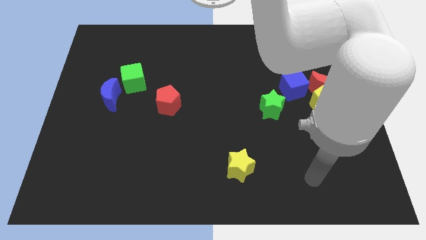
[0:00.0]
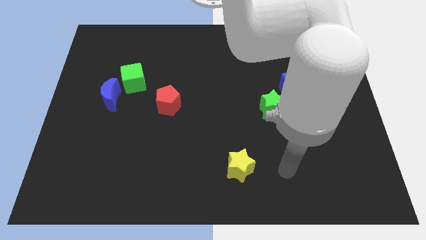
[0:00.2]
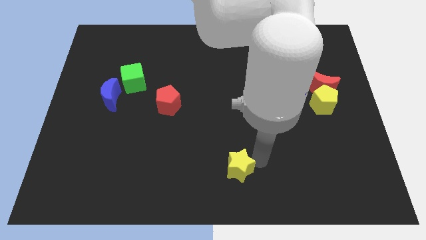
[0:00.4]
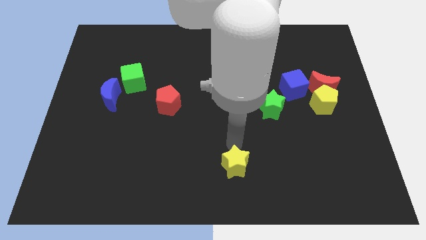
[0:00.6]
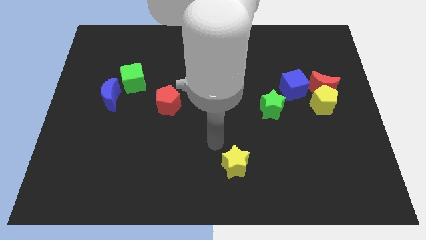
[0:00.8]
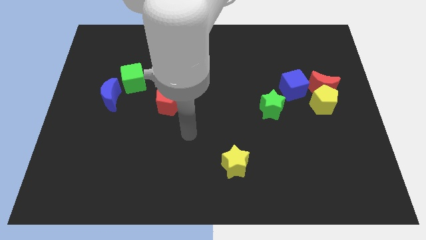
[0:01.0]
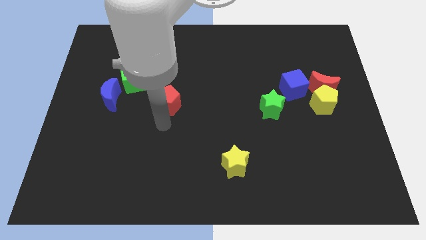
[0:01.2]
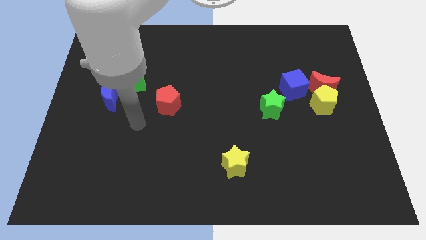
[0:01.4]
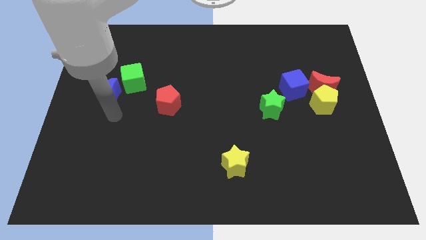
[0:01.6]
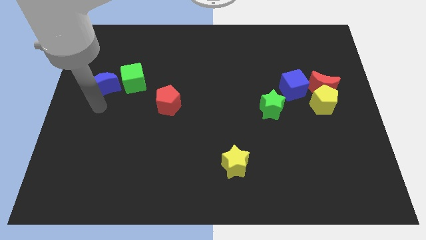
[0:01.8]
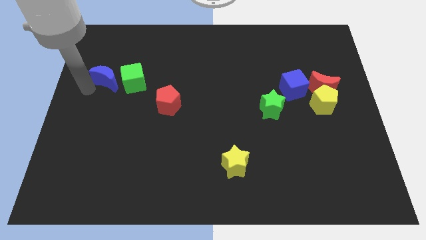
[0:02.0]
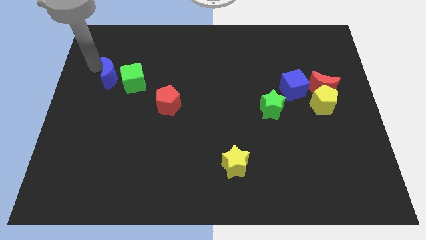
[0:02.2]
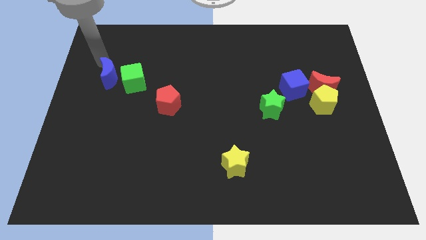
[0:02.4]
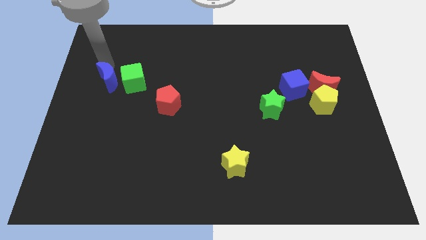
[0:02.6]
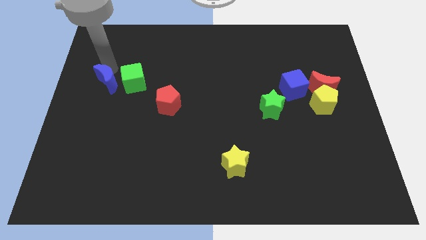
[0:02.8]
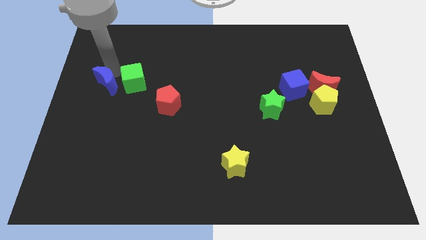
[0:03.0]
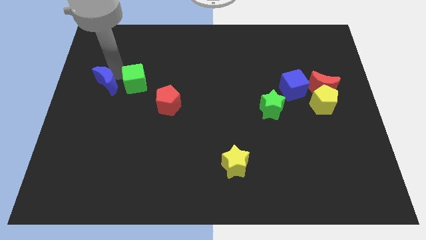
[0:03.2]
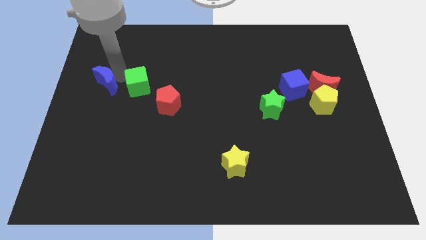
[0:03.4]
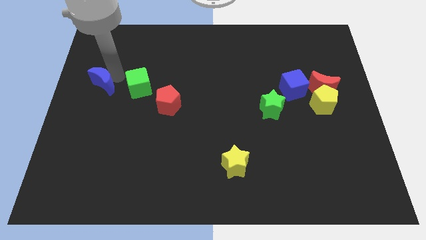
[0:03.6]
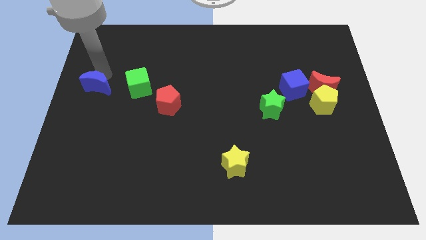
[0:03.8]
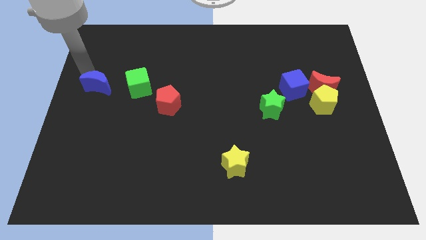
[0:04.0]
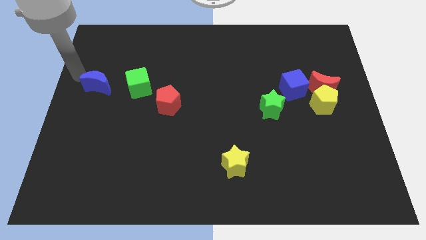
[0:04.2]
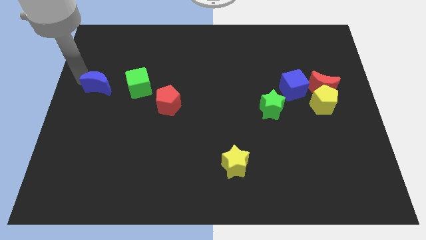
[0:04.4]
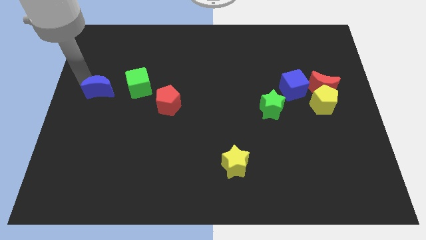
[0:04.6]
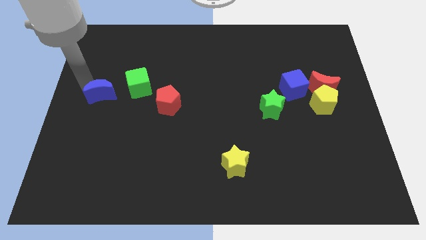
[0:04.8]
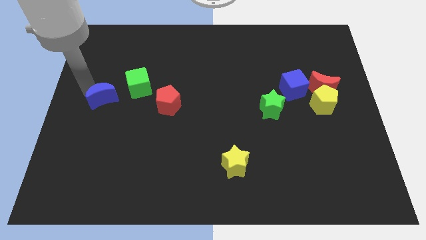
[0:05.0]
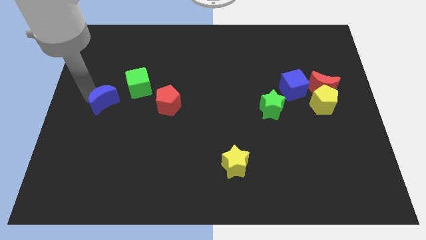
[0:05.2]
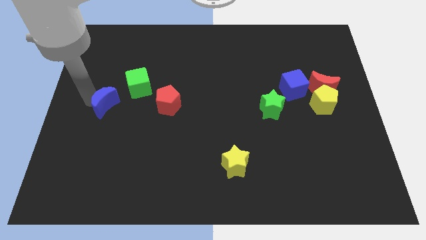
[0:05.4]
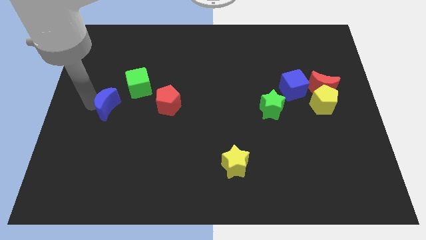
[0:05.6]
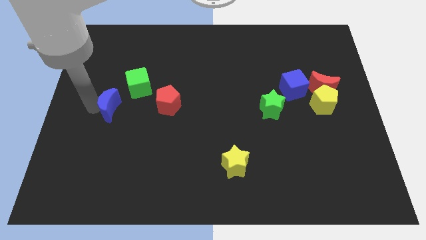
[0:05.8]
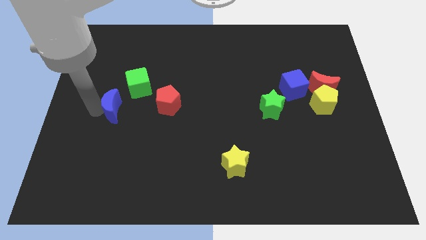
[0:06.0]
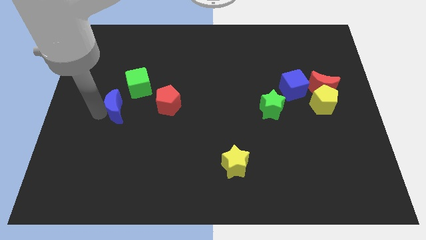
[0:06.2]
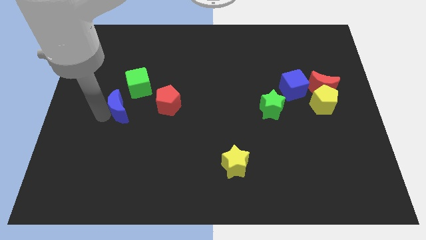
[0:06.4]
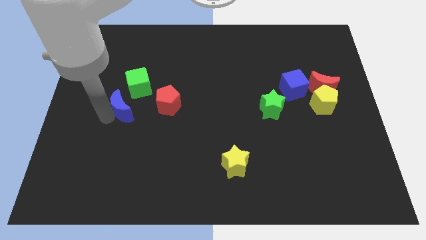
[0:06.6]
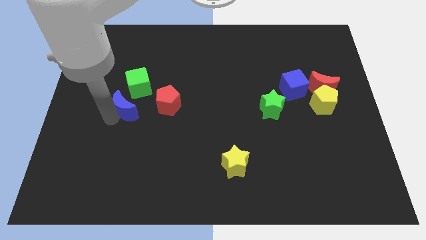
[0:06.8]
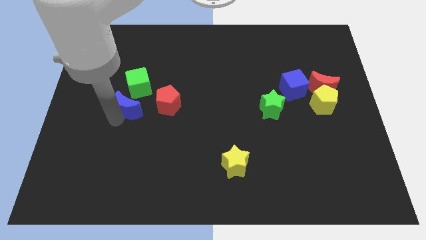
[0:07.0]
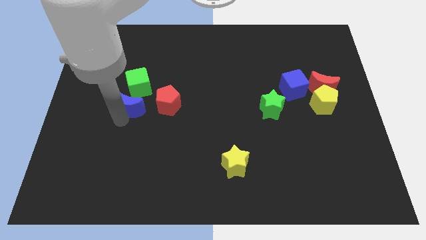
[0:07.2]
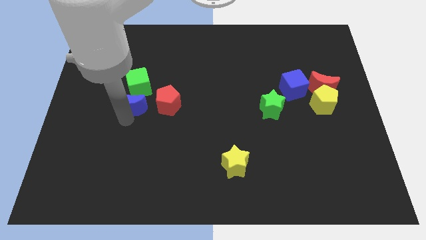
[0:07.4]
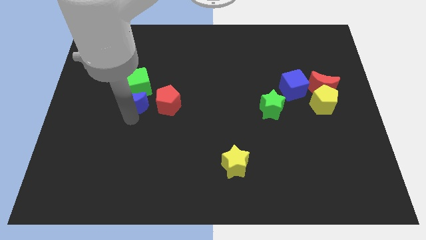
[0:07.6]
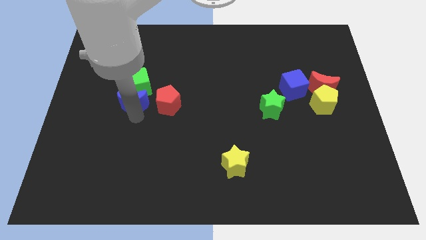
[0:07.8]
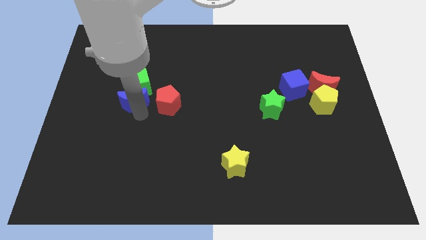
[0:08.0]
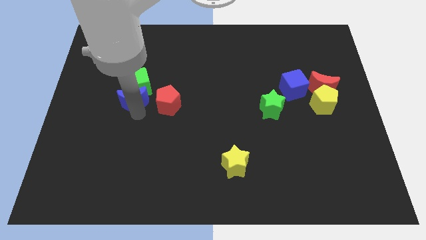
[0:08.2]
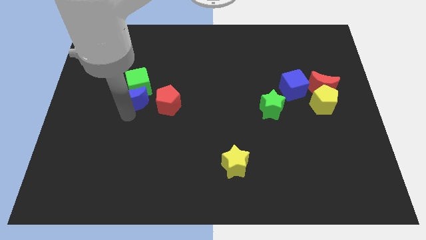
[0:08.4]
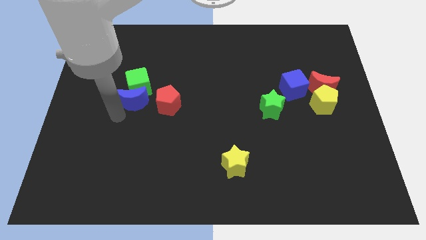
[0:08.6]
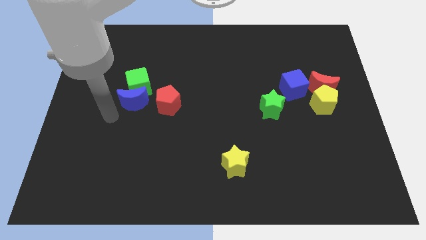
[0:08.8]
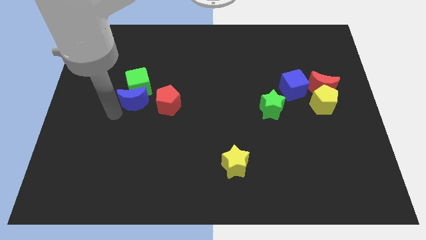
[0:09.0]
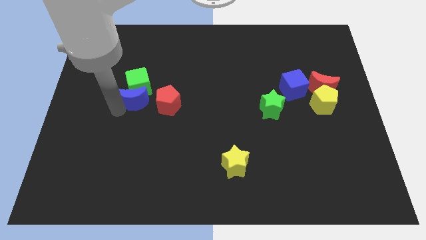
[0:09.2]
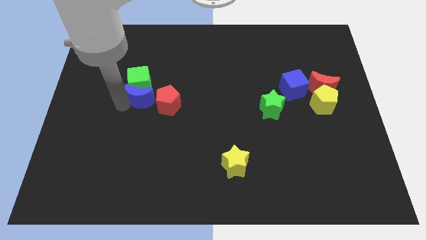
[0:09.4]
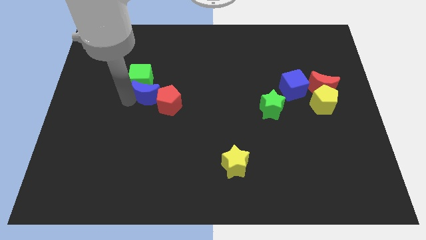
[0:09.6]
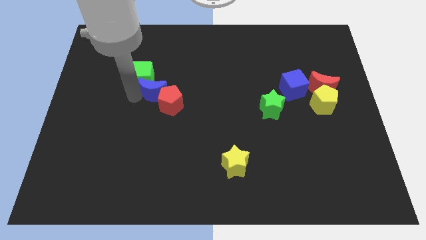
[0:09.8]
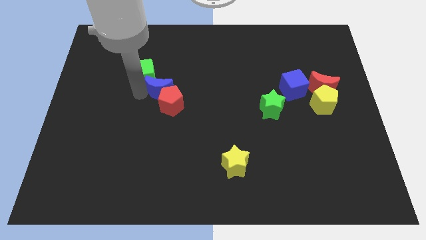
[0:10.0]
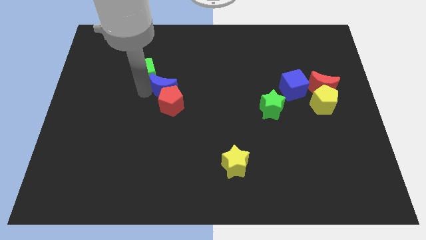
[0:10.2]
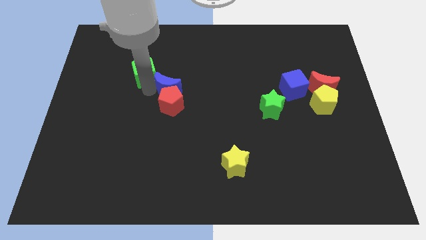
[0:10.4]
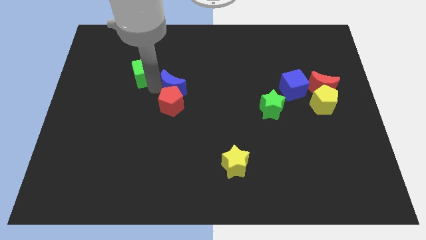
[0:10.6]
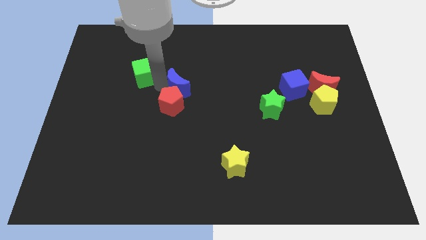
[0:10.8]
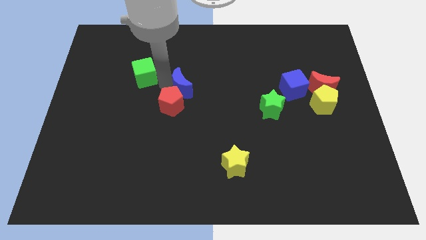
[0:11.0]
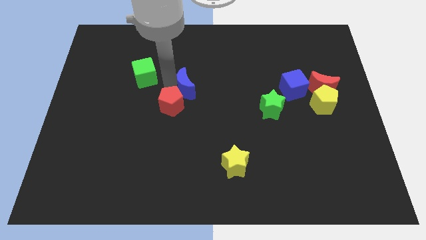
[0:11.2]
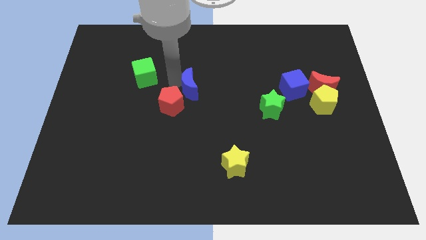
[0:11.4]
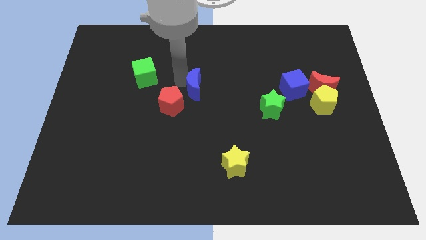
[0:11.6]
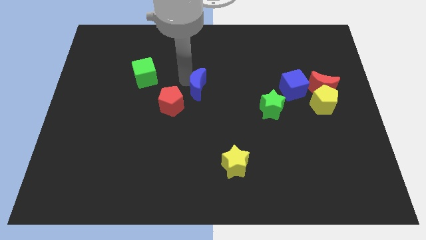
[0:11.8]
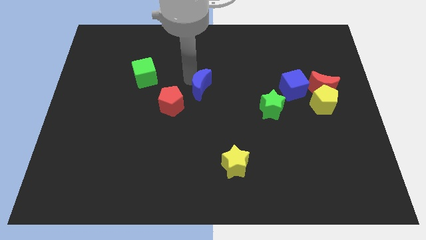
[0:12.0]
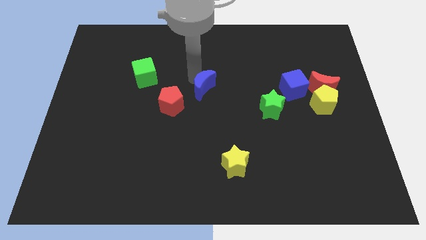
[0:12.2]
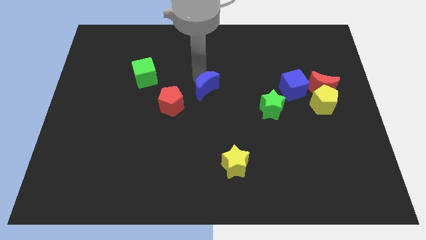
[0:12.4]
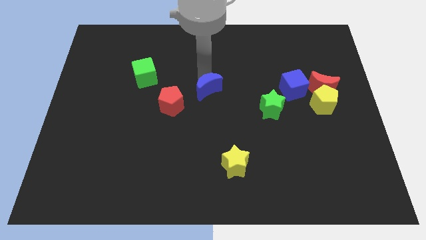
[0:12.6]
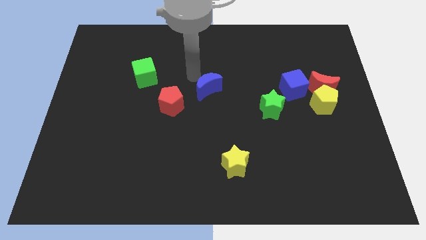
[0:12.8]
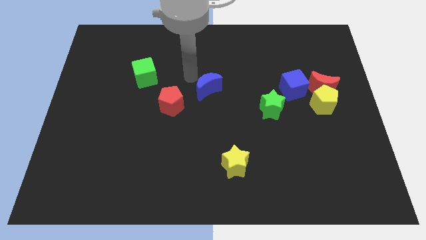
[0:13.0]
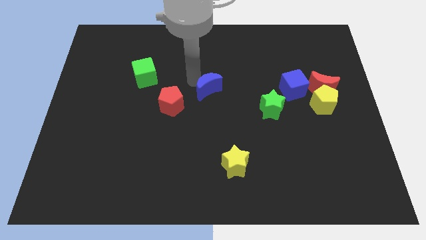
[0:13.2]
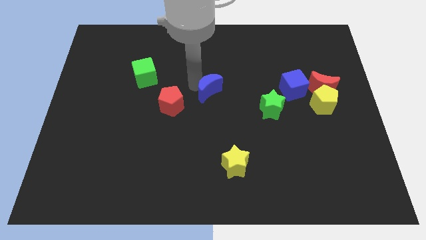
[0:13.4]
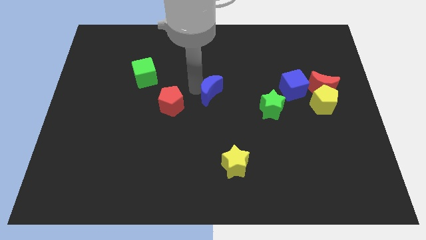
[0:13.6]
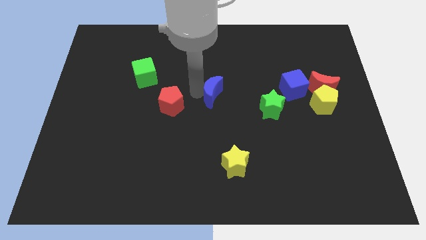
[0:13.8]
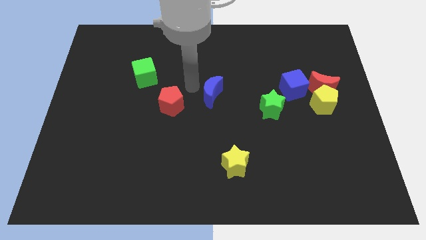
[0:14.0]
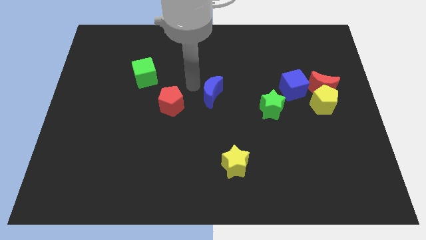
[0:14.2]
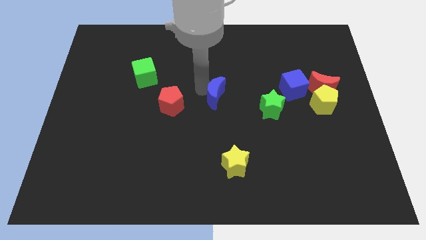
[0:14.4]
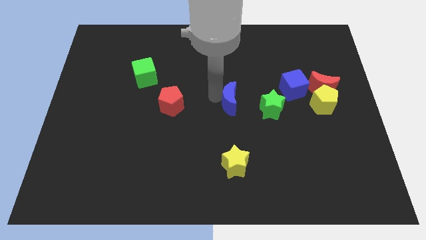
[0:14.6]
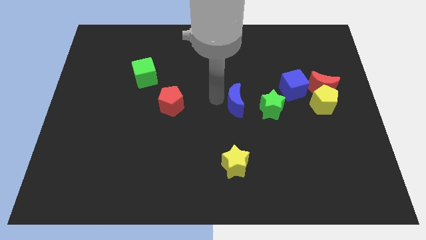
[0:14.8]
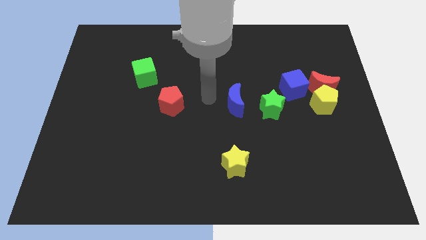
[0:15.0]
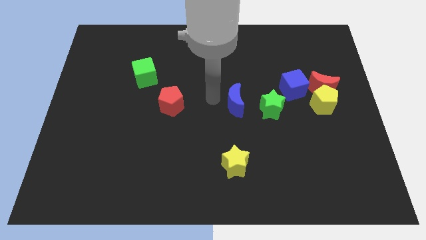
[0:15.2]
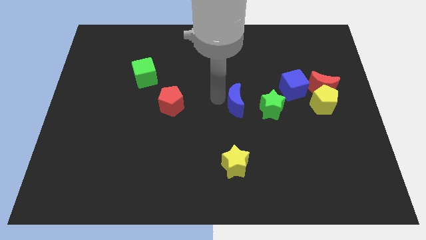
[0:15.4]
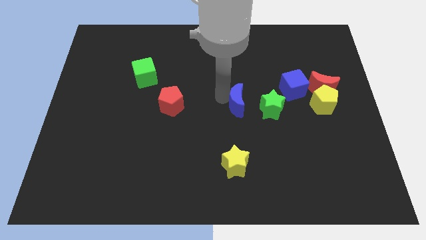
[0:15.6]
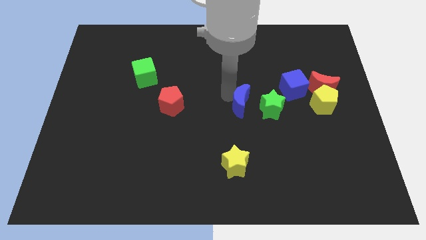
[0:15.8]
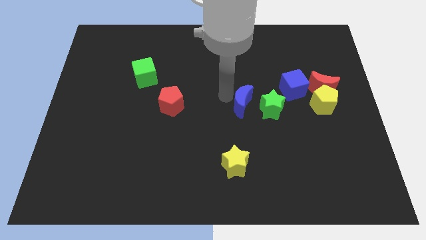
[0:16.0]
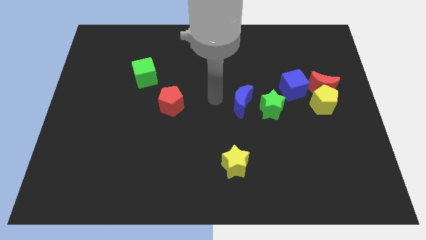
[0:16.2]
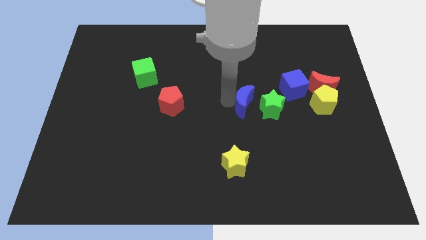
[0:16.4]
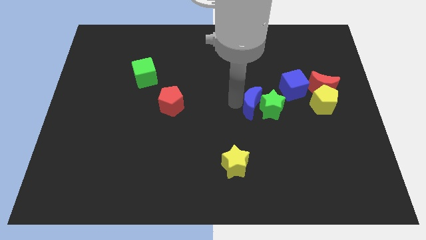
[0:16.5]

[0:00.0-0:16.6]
move the blue moon close to the green star
